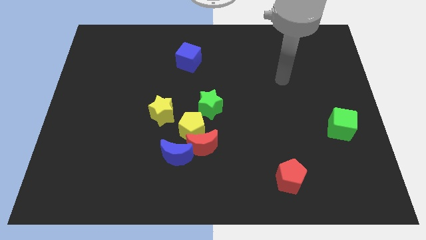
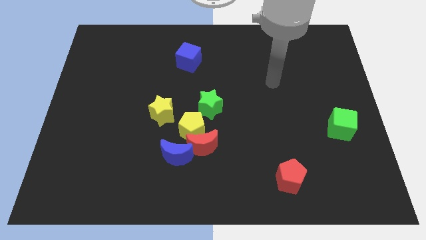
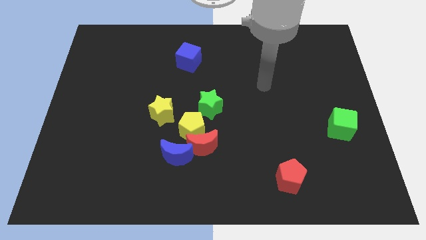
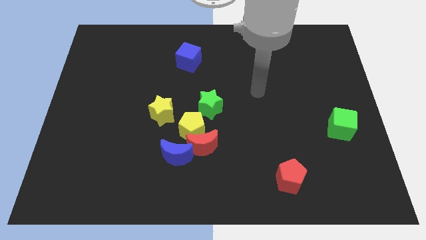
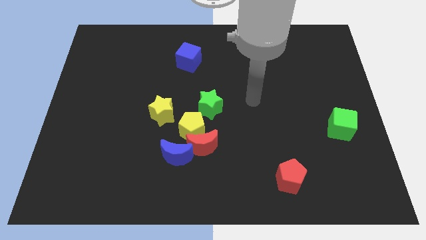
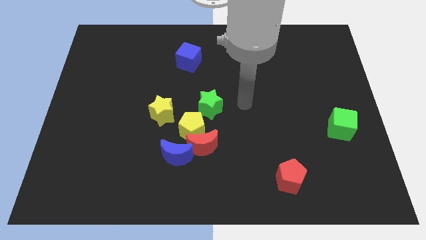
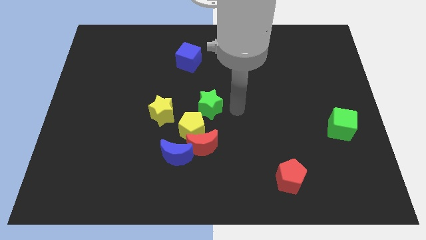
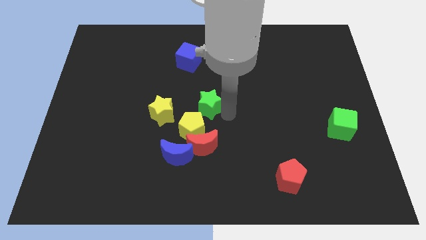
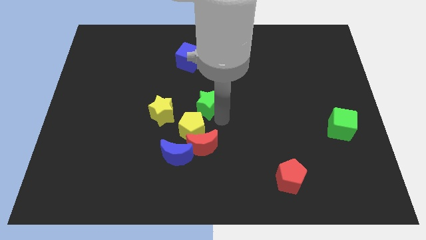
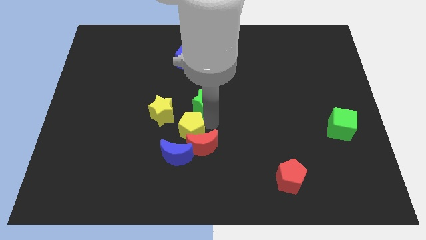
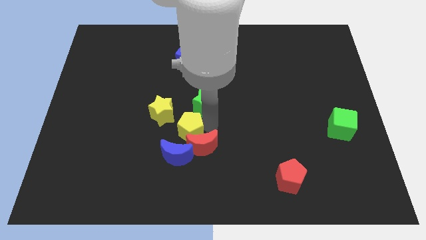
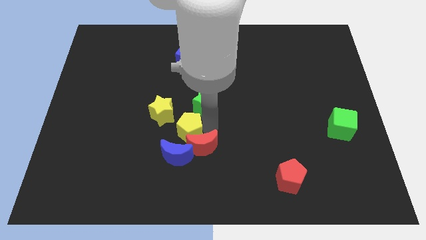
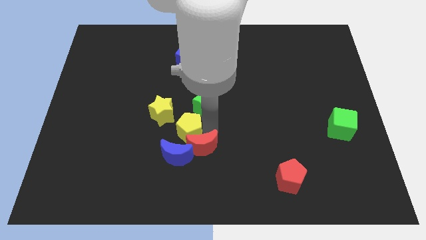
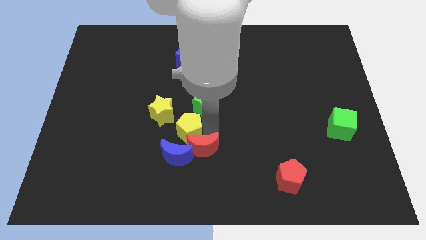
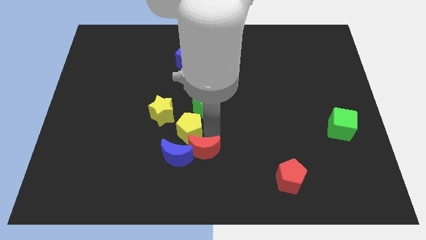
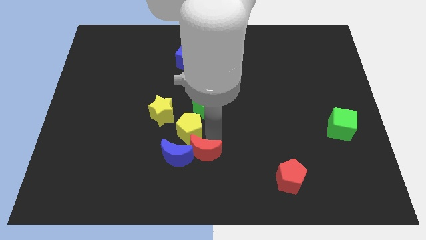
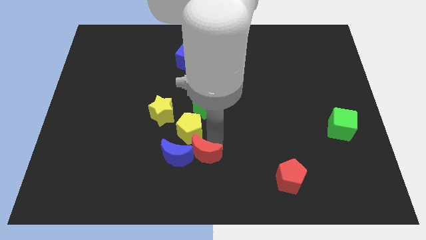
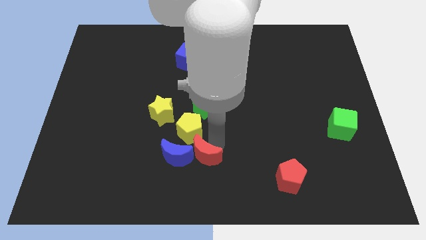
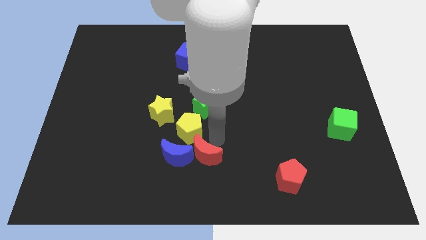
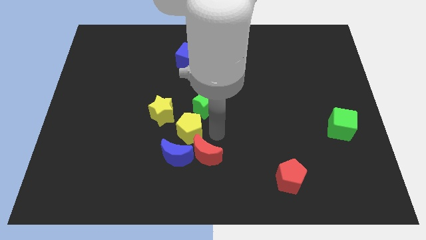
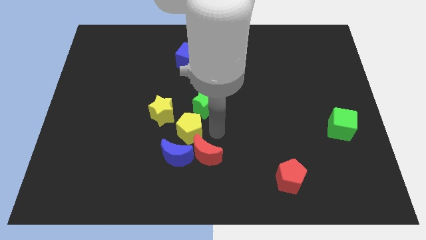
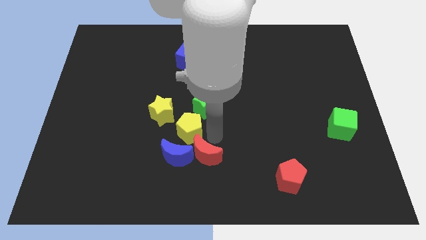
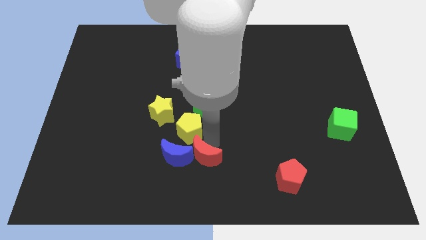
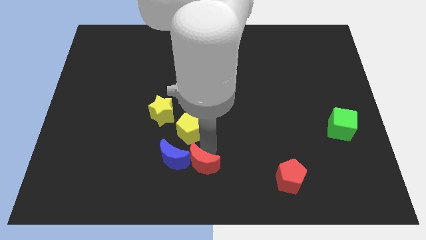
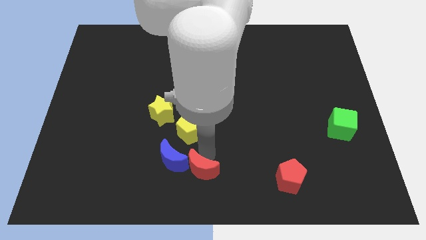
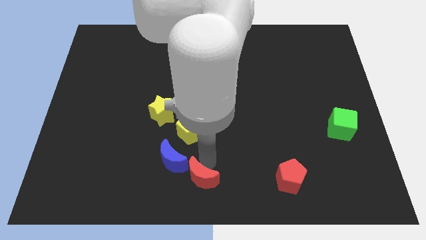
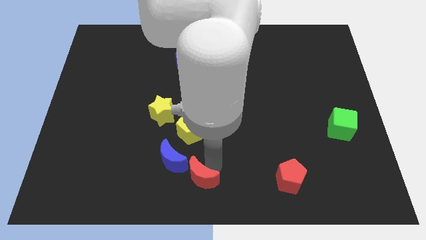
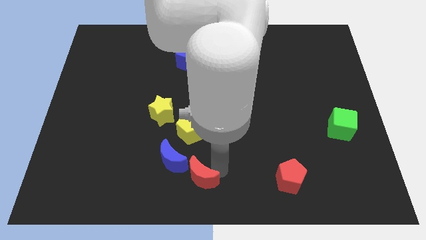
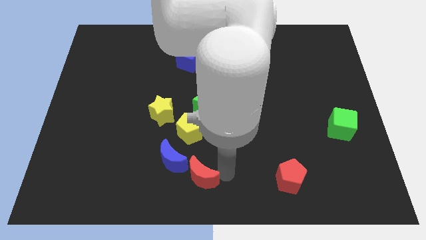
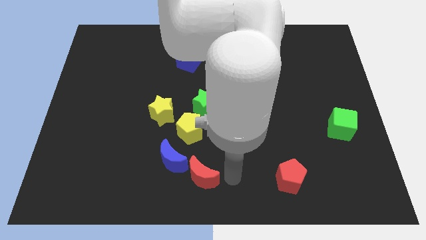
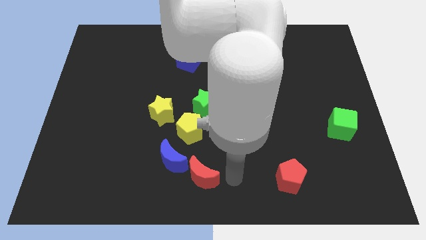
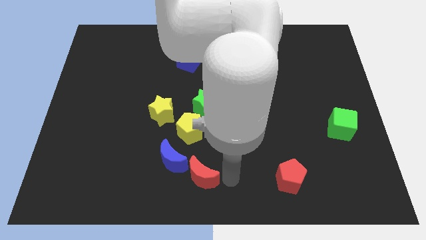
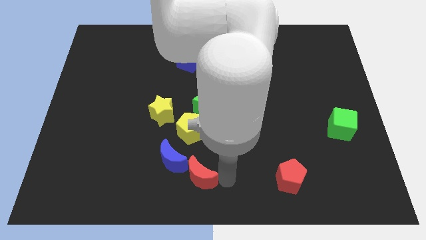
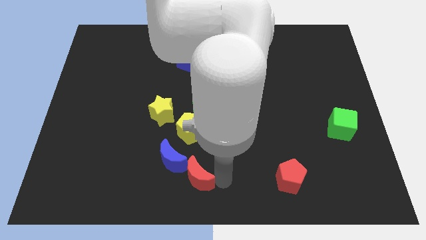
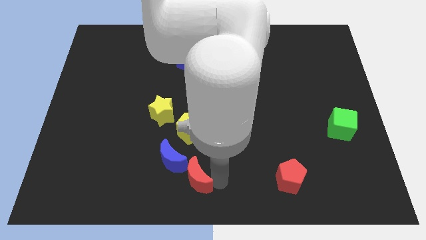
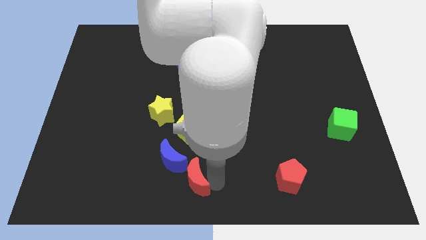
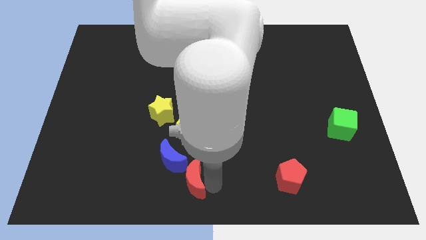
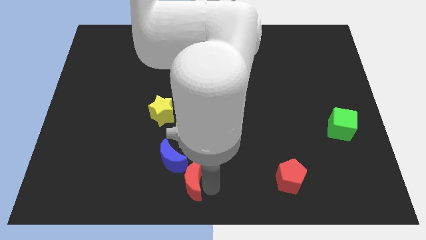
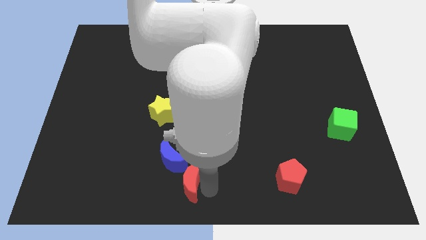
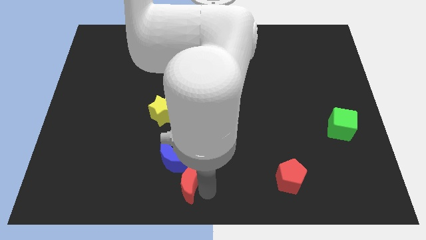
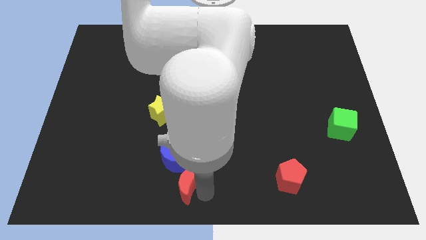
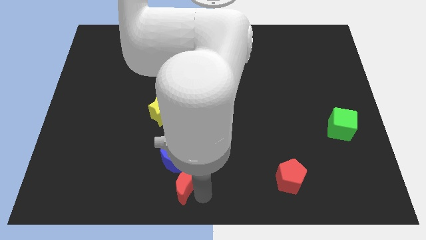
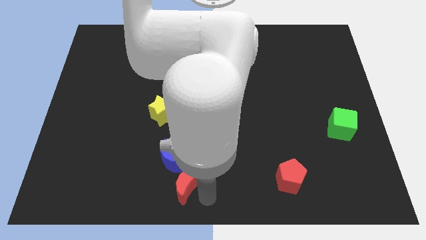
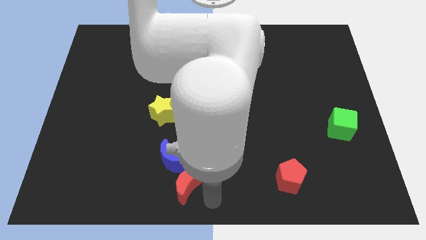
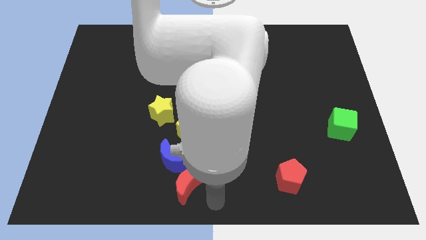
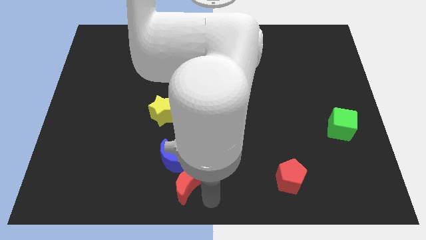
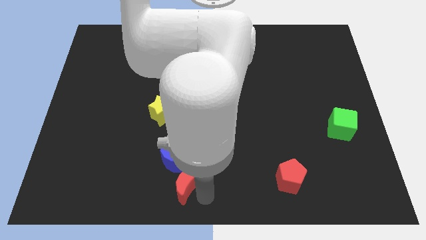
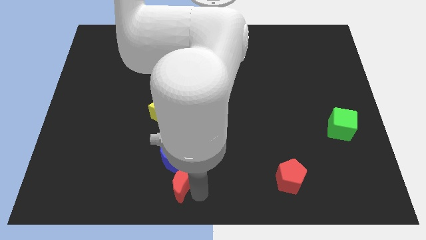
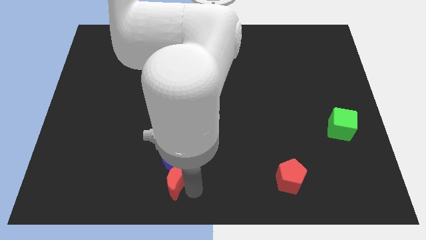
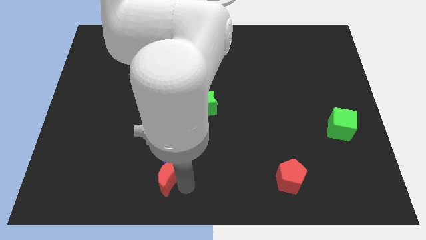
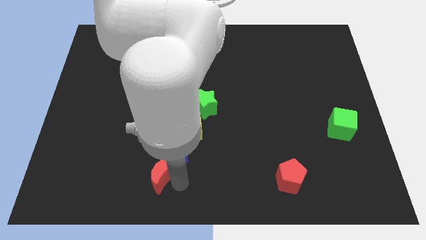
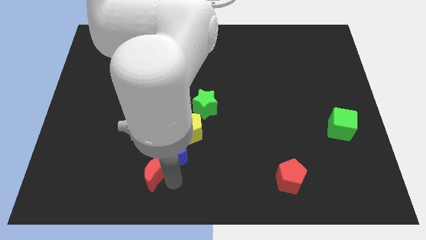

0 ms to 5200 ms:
push the red moon to the left somewhat

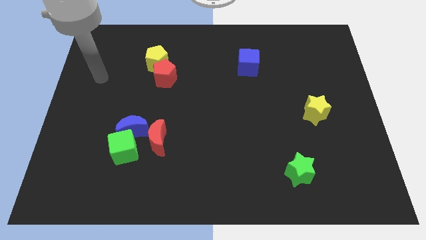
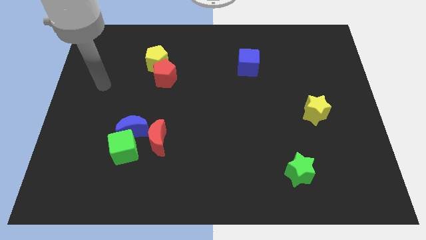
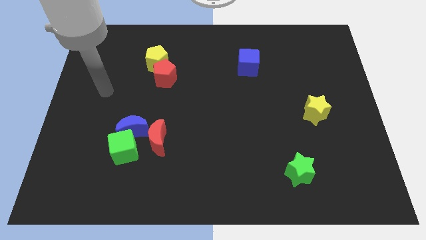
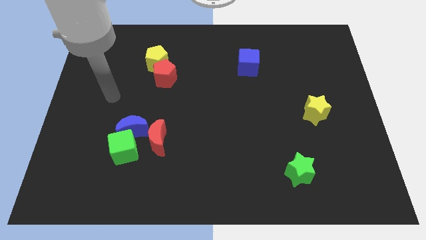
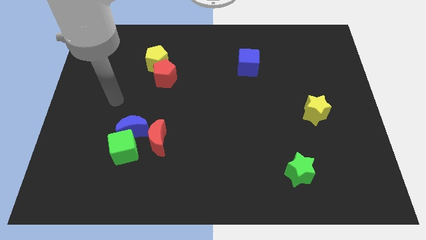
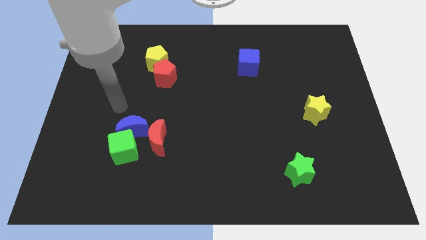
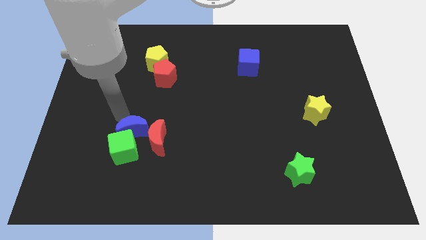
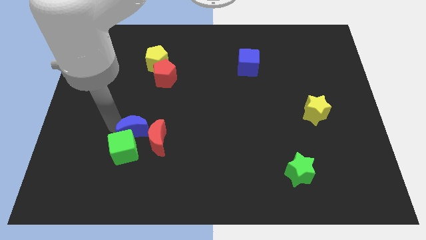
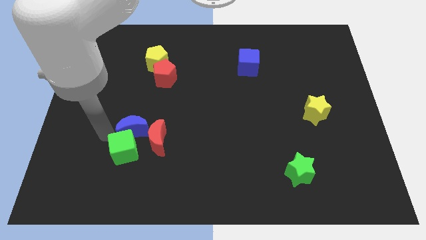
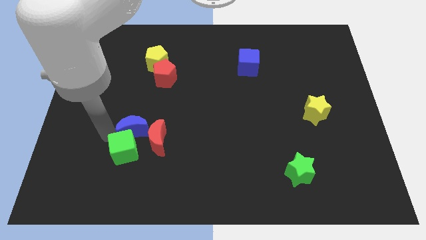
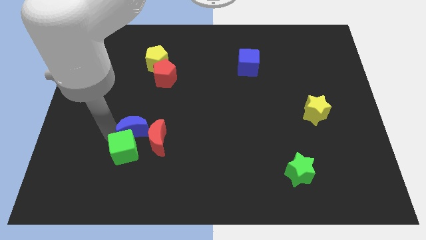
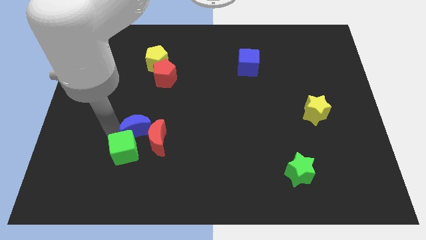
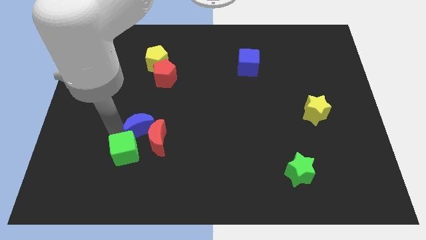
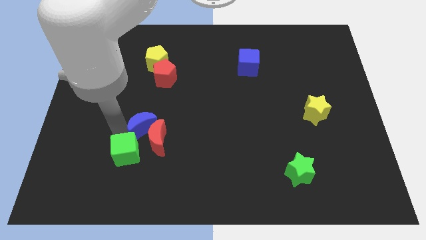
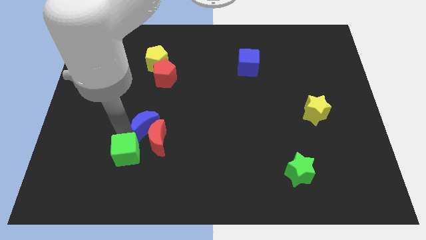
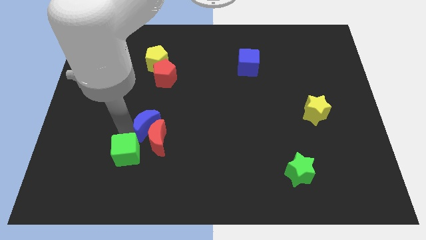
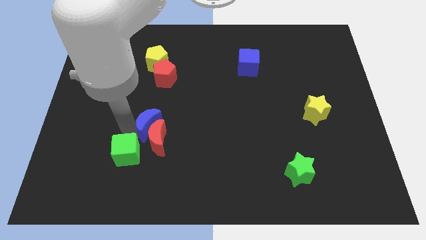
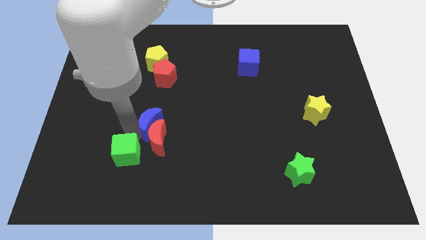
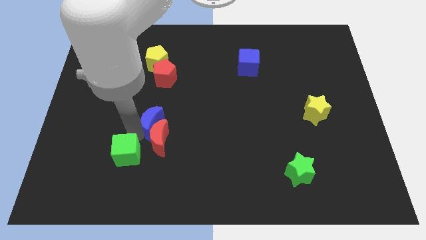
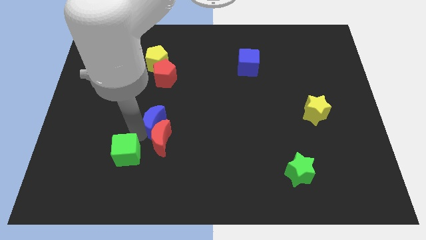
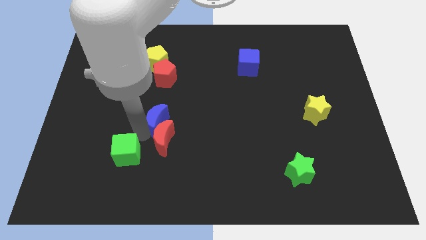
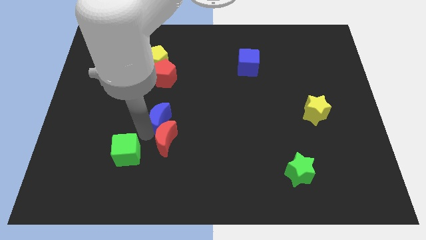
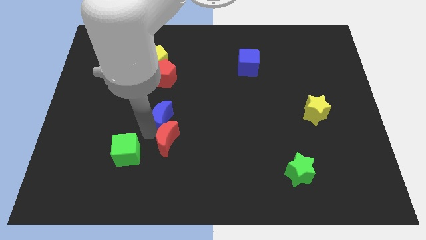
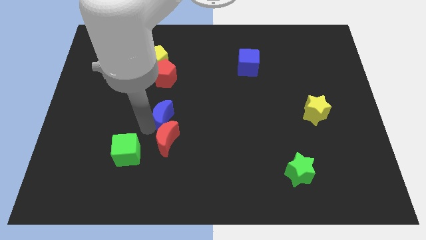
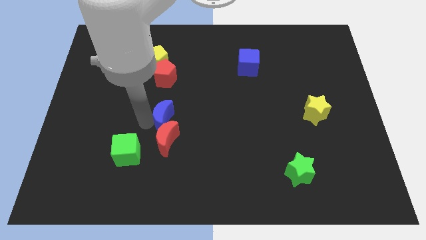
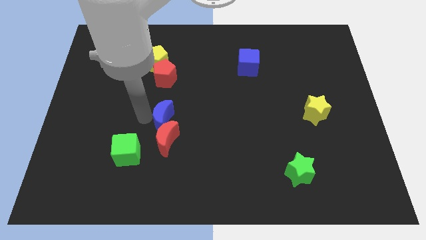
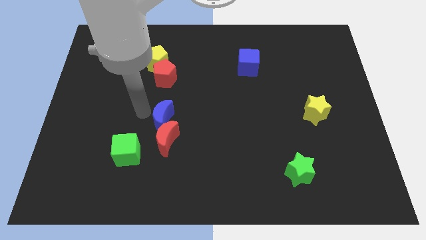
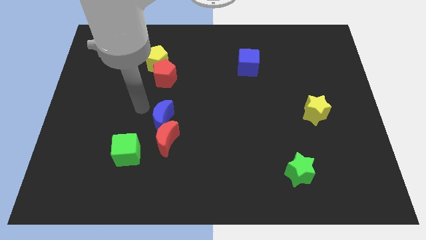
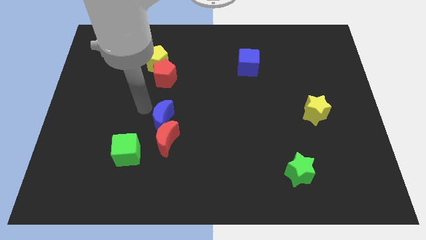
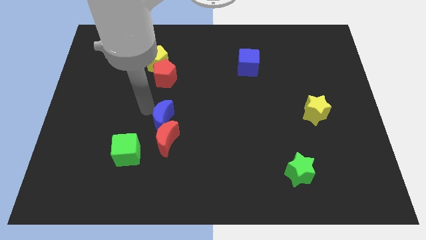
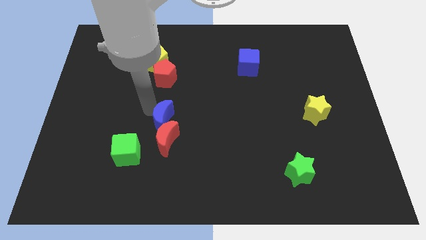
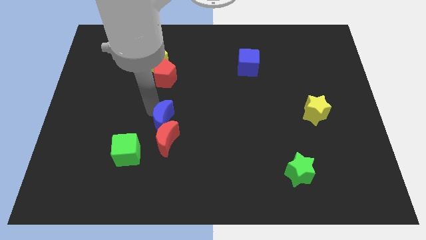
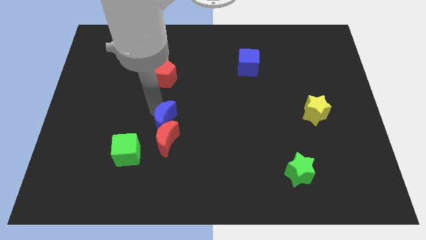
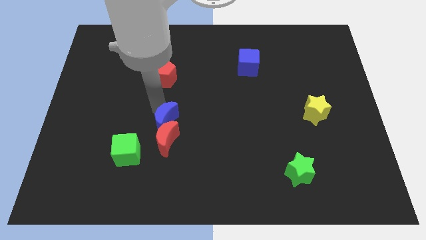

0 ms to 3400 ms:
slightly slide the blue moon to the right
